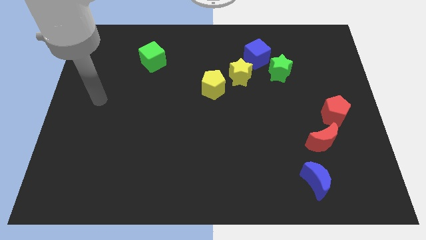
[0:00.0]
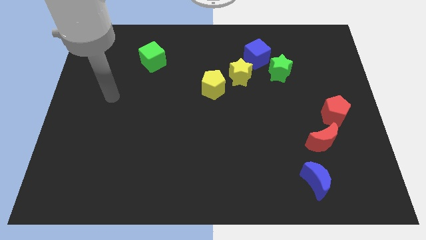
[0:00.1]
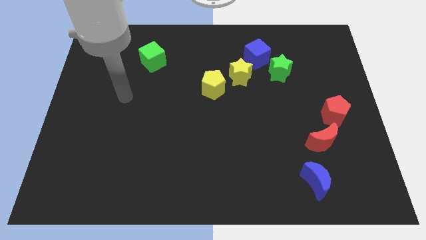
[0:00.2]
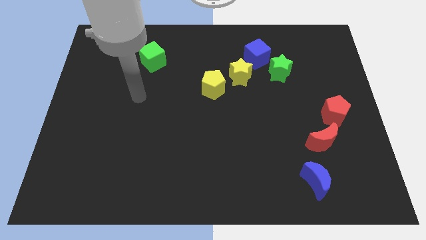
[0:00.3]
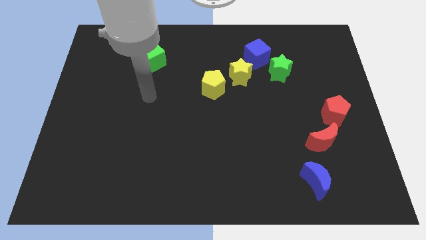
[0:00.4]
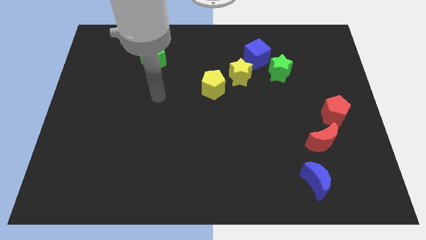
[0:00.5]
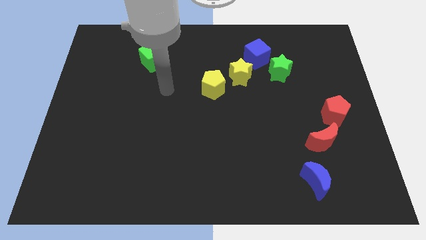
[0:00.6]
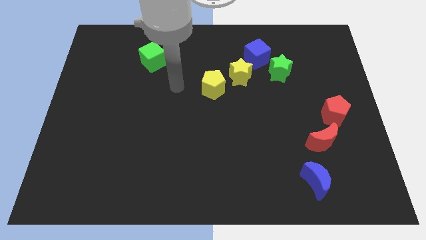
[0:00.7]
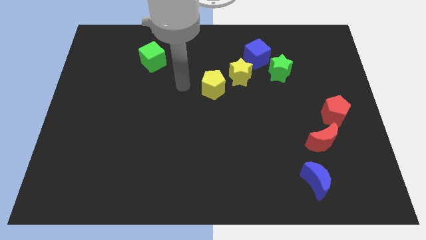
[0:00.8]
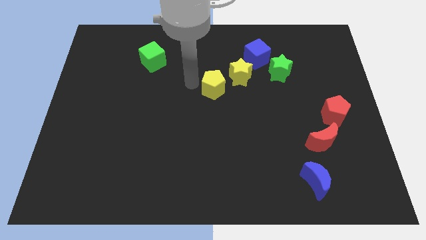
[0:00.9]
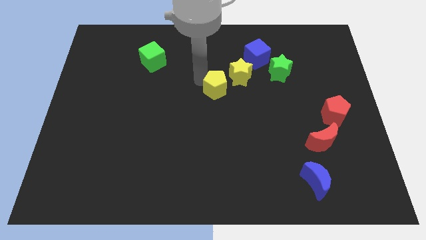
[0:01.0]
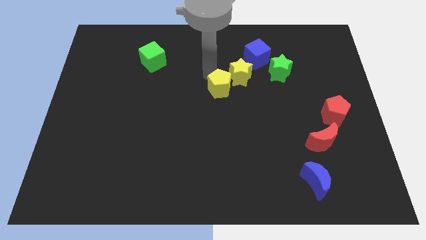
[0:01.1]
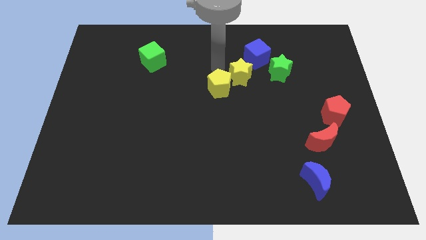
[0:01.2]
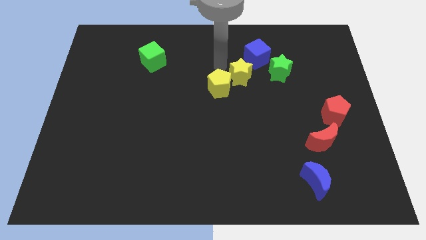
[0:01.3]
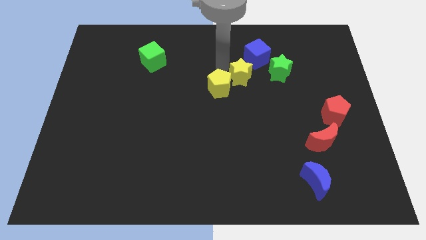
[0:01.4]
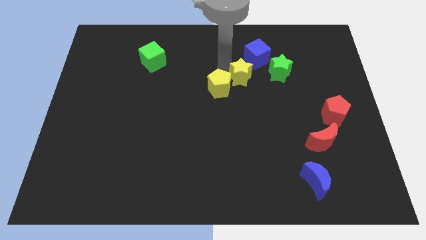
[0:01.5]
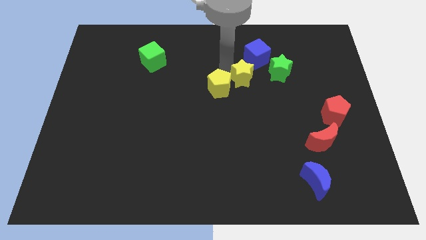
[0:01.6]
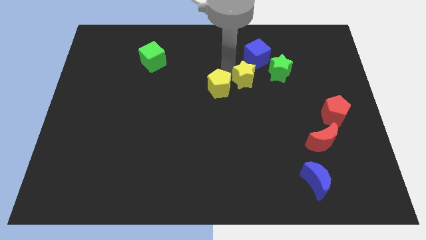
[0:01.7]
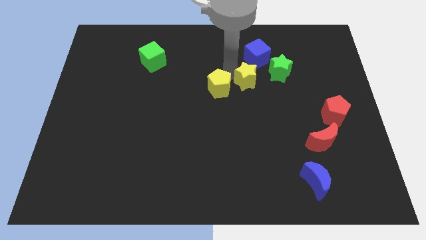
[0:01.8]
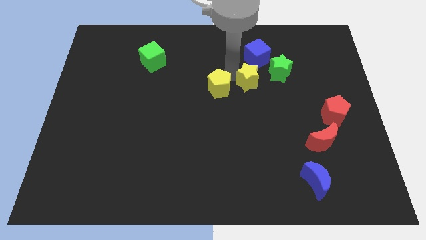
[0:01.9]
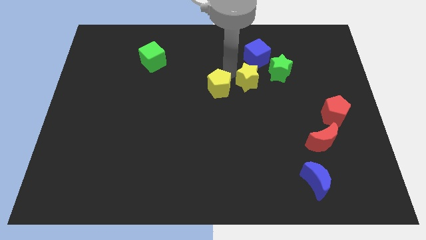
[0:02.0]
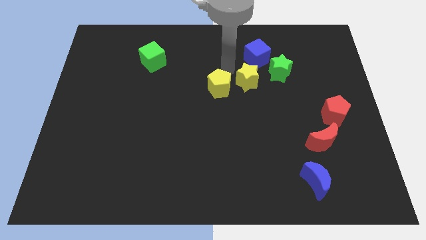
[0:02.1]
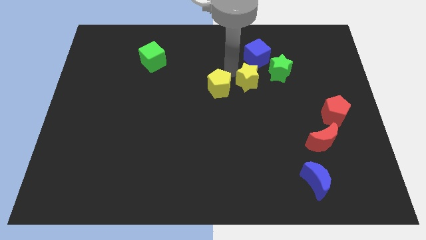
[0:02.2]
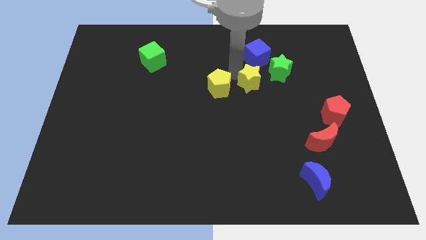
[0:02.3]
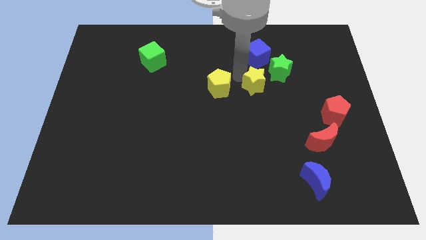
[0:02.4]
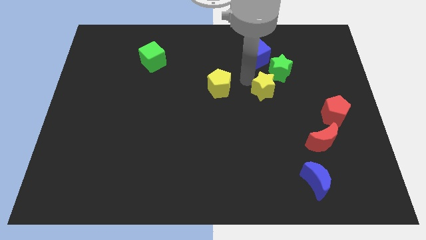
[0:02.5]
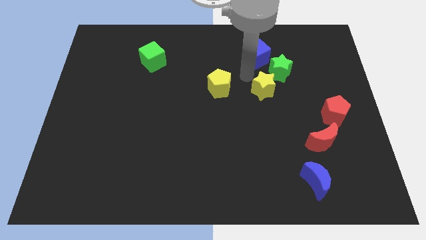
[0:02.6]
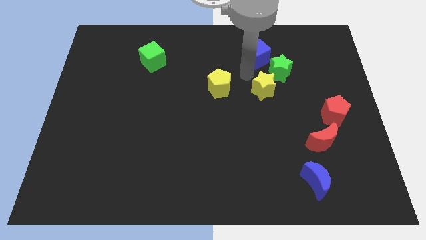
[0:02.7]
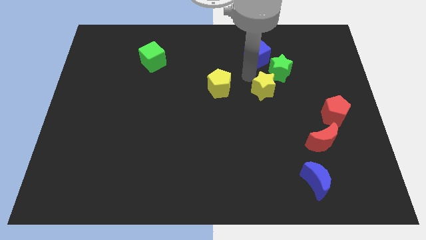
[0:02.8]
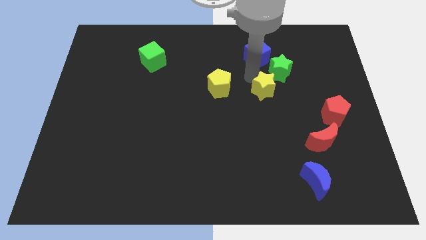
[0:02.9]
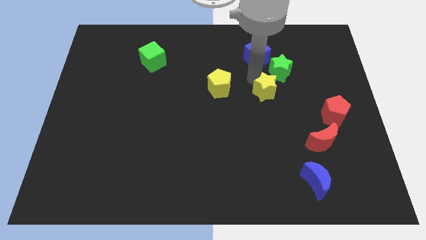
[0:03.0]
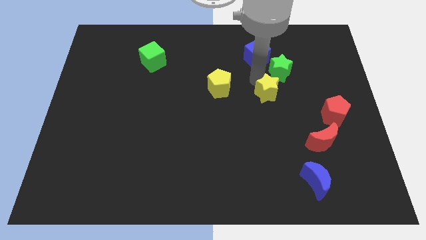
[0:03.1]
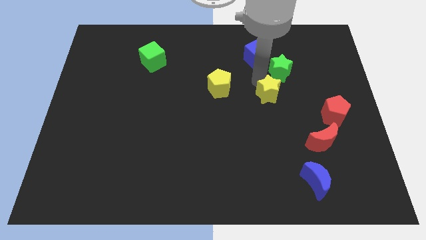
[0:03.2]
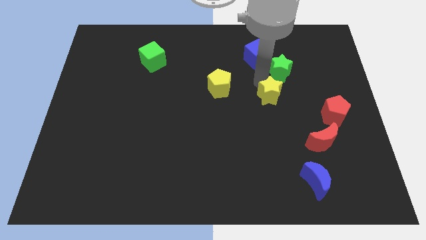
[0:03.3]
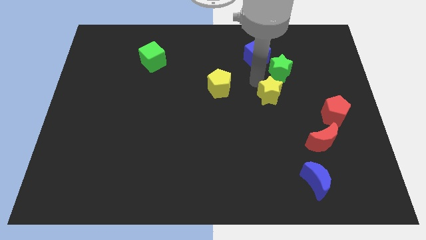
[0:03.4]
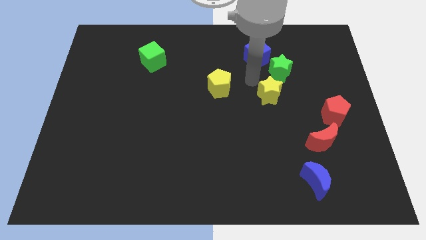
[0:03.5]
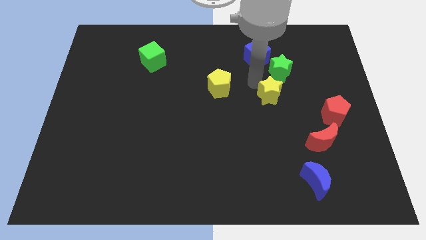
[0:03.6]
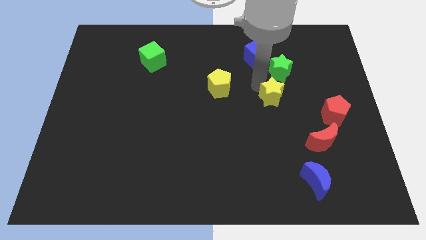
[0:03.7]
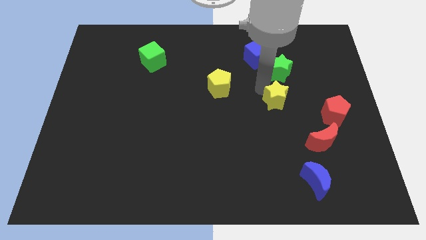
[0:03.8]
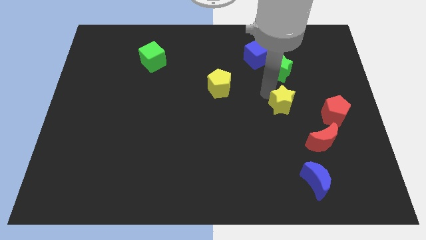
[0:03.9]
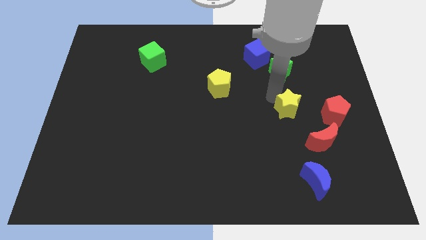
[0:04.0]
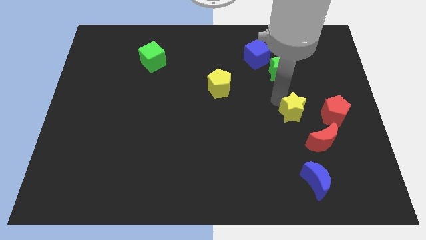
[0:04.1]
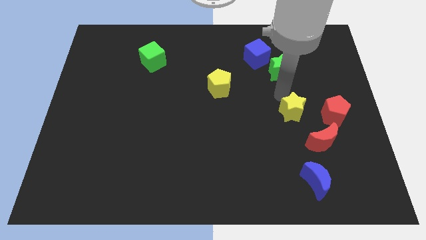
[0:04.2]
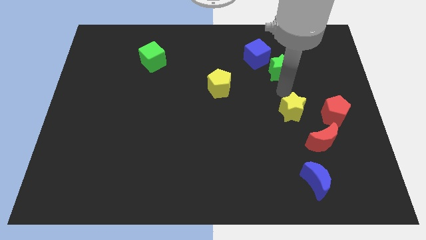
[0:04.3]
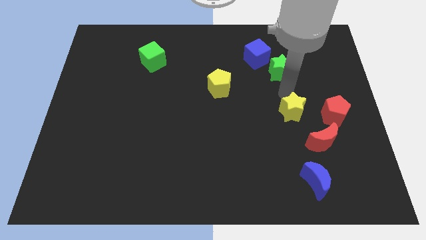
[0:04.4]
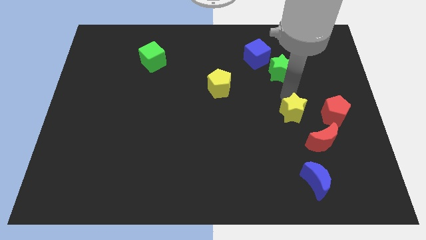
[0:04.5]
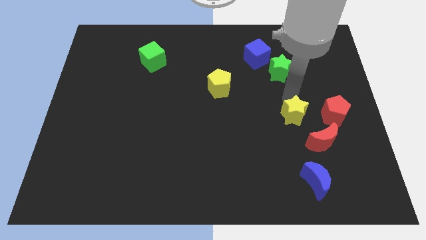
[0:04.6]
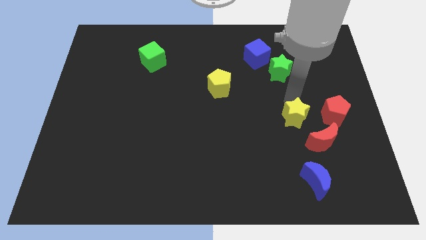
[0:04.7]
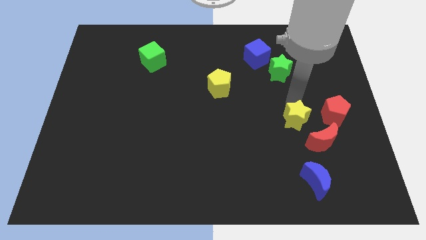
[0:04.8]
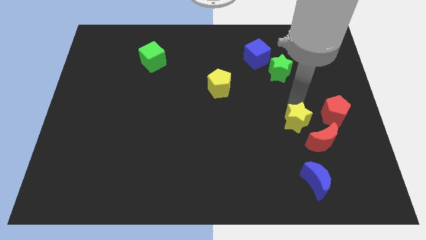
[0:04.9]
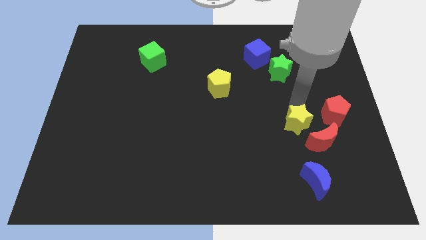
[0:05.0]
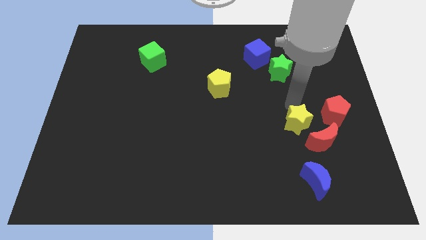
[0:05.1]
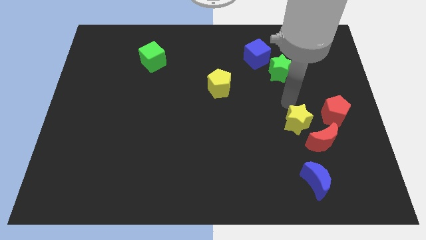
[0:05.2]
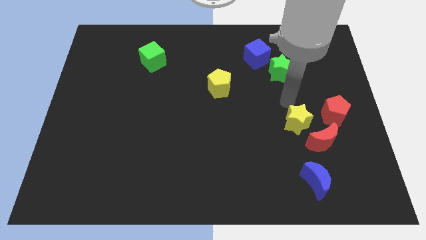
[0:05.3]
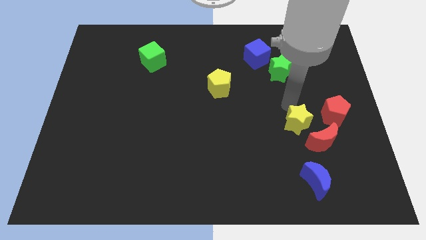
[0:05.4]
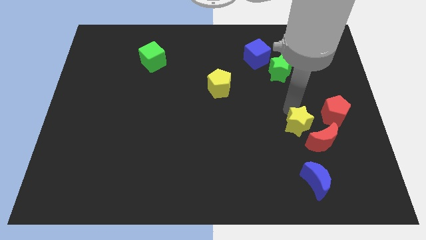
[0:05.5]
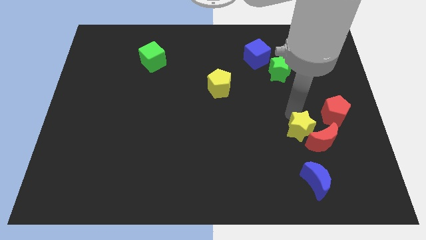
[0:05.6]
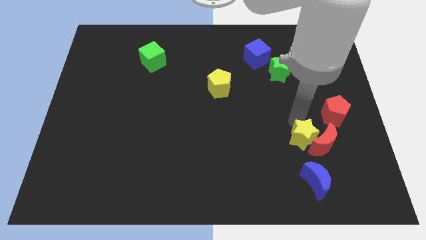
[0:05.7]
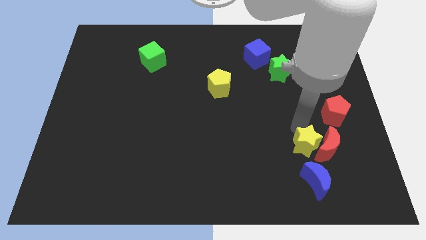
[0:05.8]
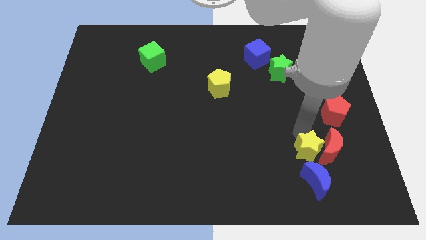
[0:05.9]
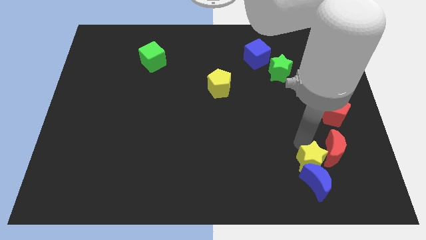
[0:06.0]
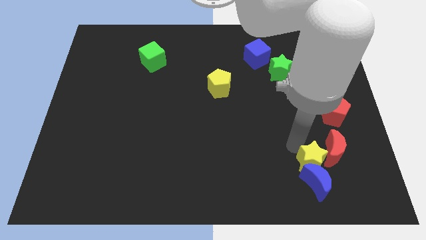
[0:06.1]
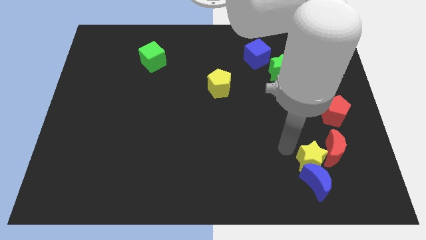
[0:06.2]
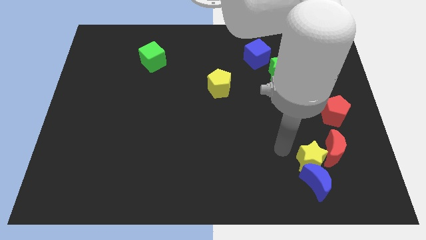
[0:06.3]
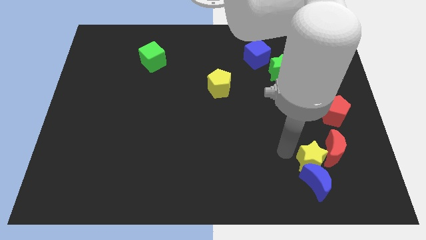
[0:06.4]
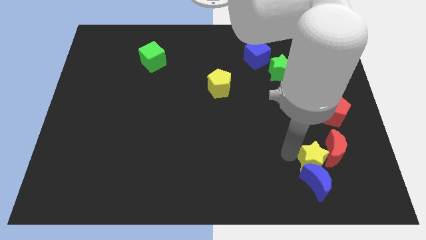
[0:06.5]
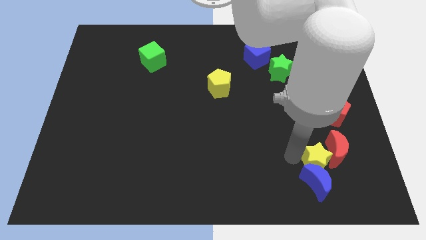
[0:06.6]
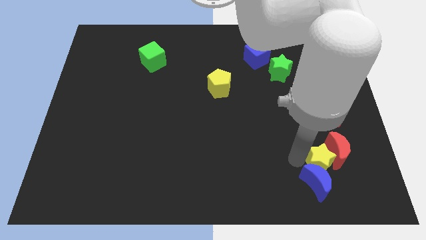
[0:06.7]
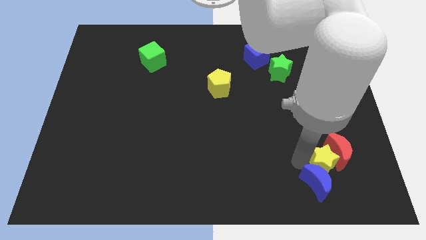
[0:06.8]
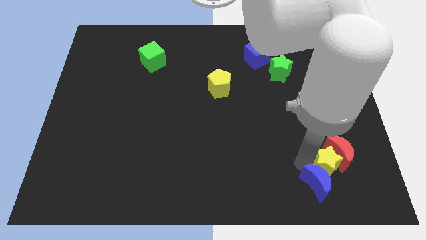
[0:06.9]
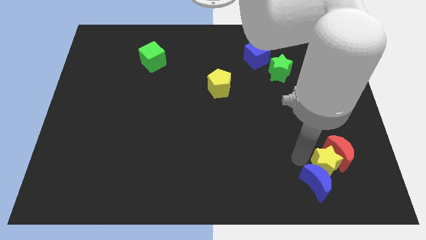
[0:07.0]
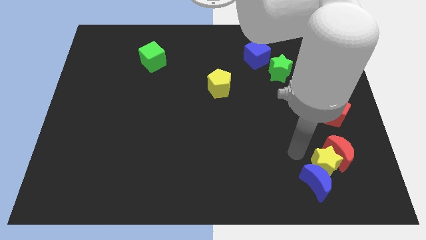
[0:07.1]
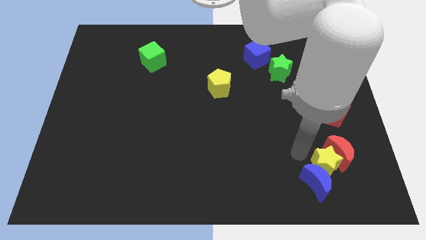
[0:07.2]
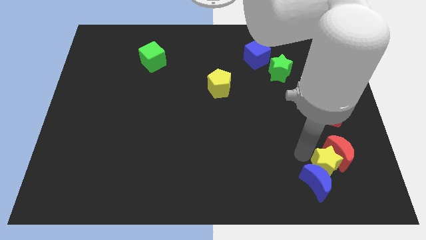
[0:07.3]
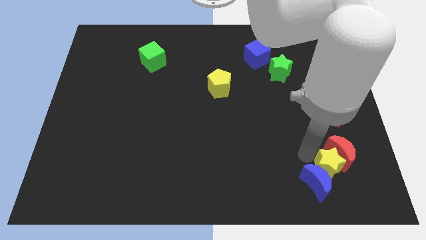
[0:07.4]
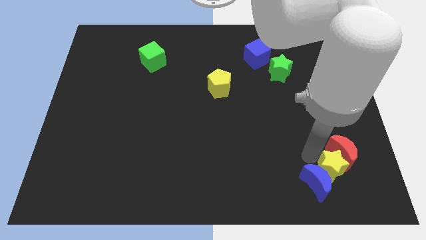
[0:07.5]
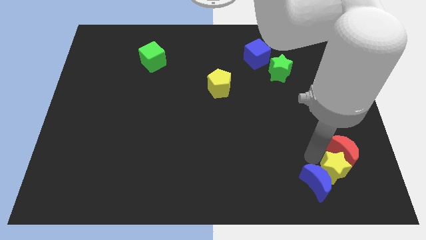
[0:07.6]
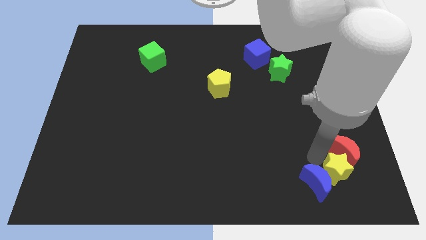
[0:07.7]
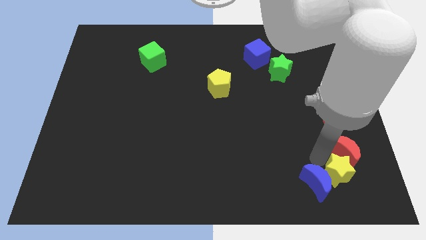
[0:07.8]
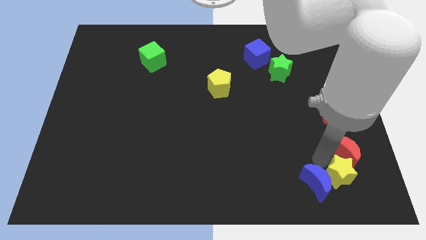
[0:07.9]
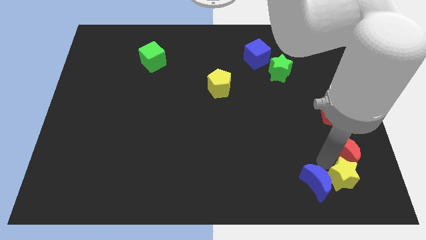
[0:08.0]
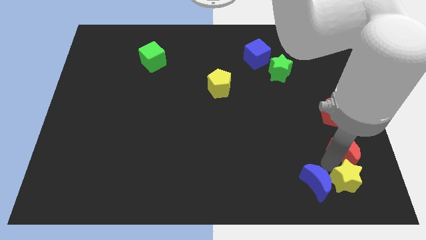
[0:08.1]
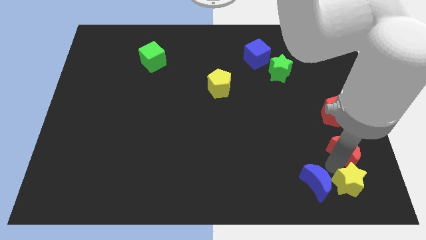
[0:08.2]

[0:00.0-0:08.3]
move the yellow star to the bottom right corner
